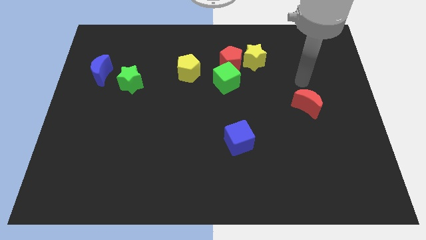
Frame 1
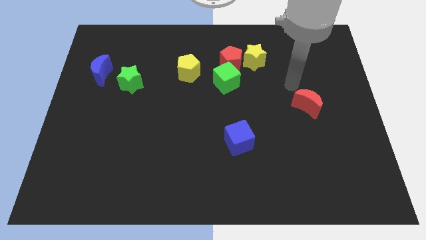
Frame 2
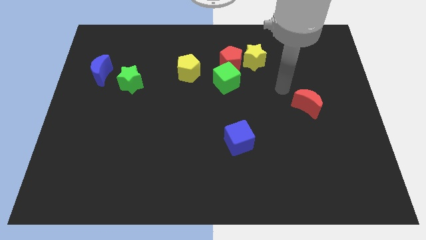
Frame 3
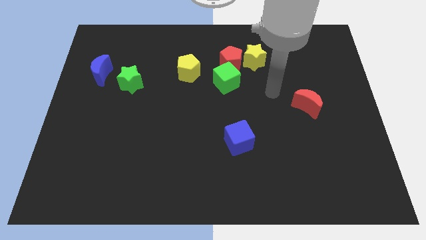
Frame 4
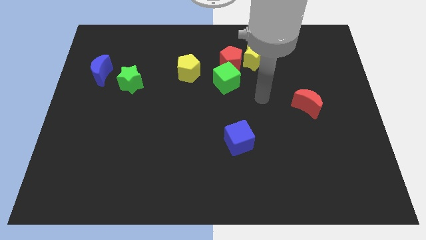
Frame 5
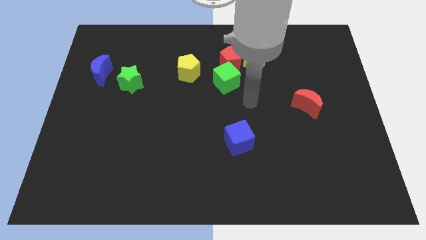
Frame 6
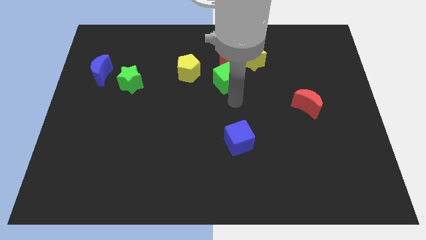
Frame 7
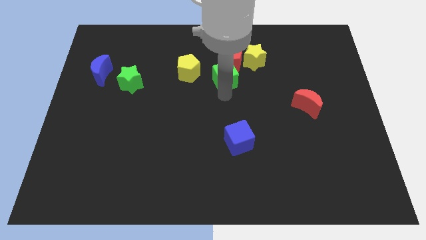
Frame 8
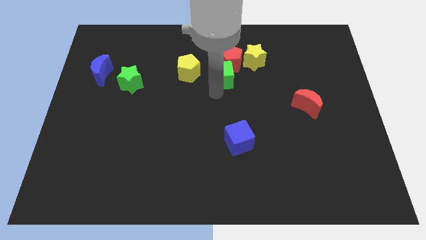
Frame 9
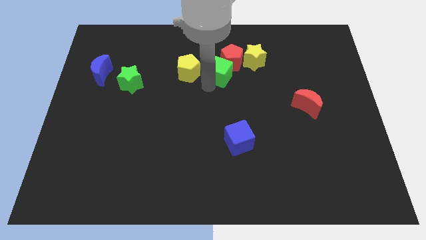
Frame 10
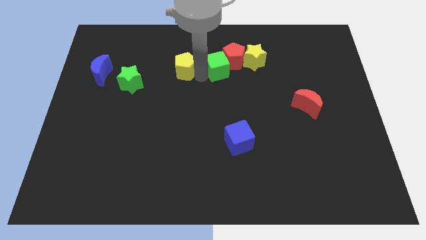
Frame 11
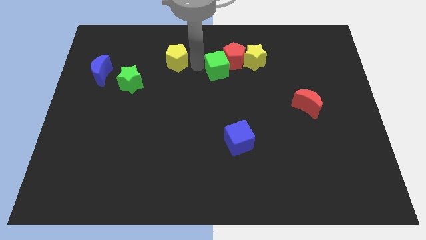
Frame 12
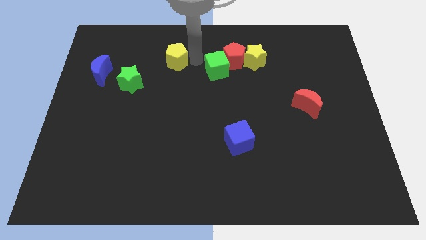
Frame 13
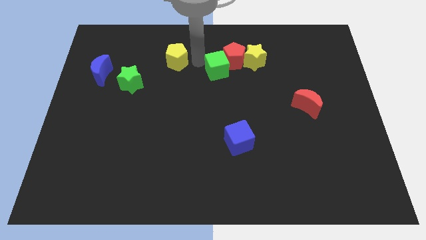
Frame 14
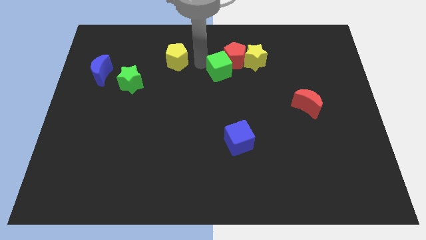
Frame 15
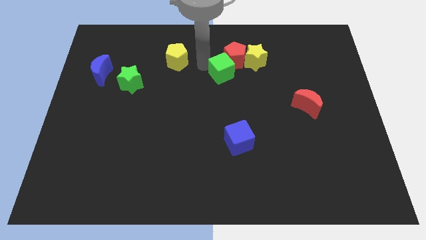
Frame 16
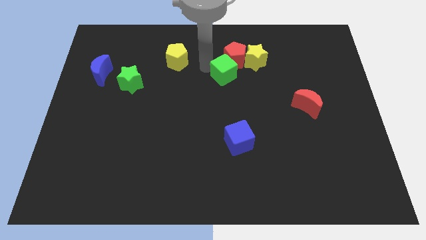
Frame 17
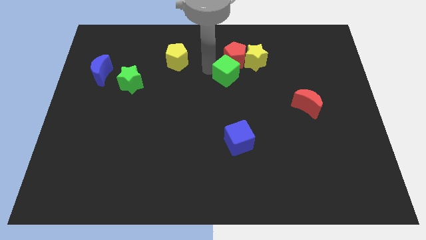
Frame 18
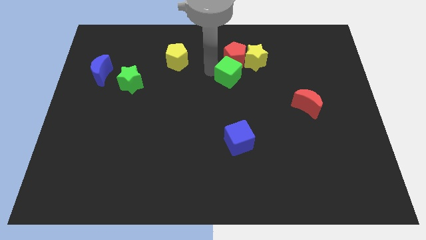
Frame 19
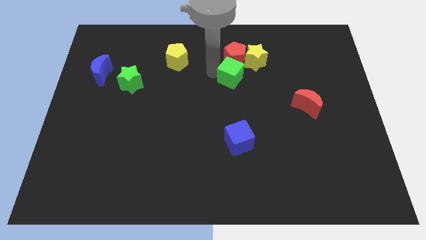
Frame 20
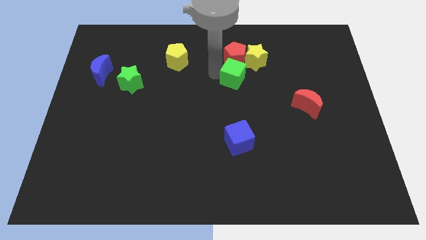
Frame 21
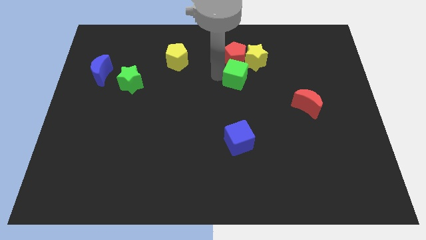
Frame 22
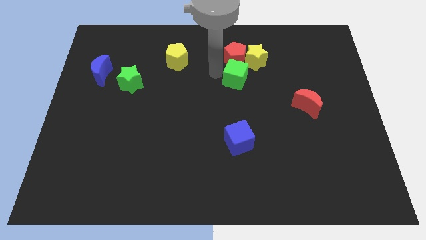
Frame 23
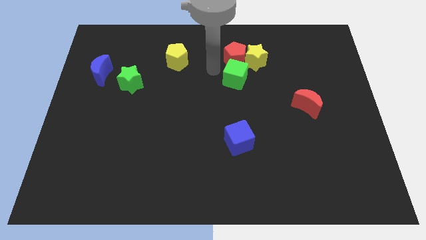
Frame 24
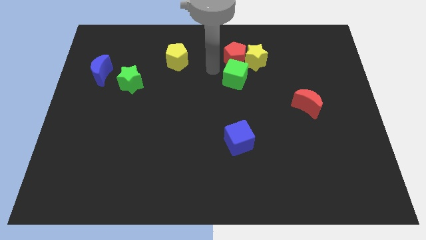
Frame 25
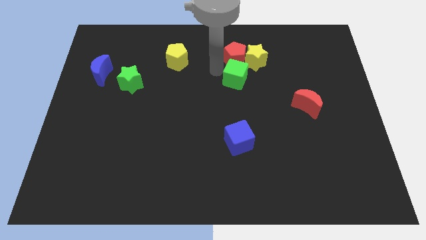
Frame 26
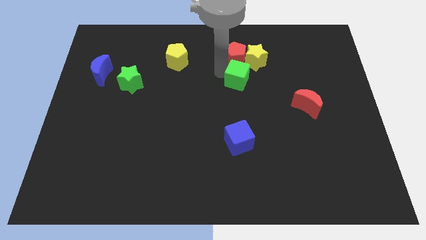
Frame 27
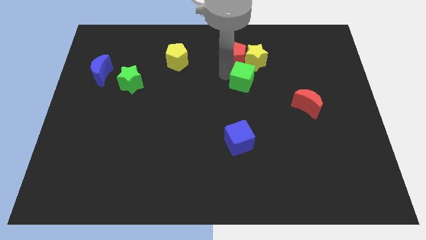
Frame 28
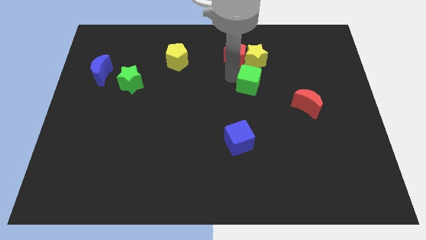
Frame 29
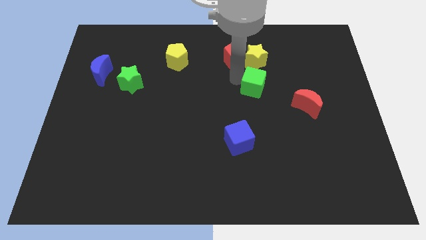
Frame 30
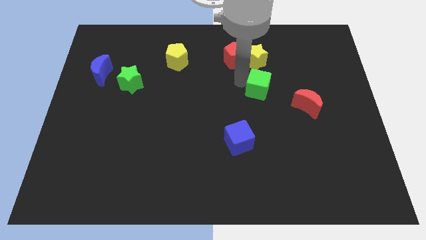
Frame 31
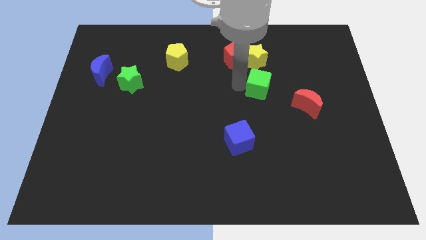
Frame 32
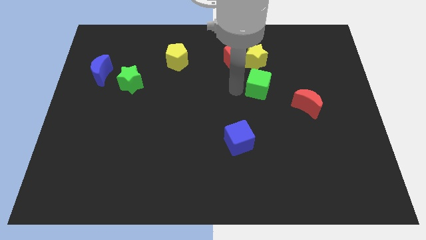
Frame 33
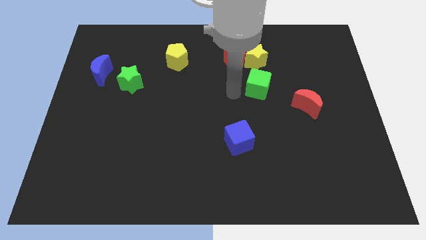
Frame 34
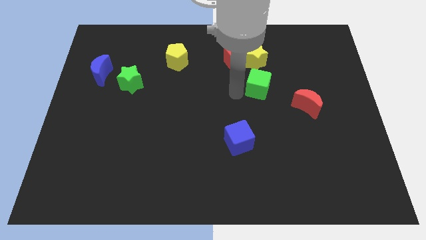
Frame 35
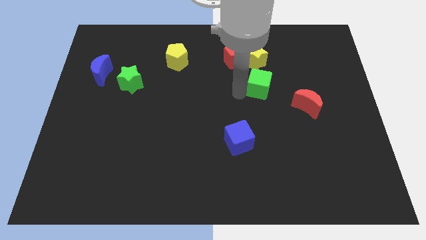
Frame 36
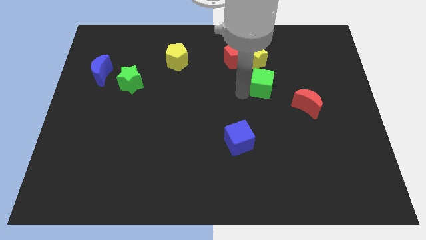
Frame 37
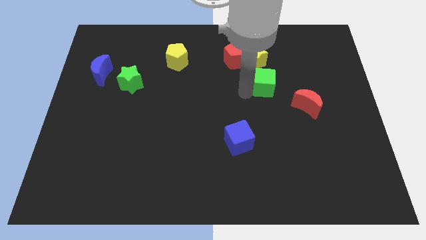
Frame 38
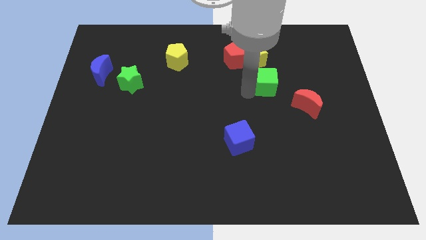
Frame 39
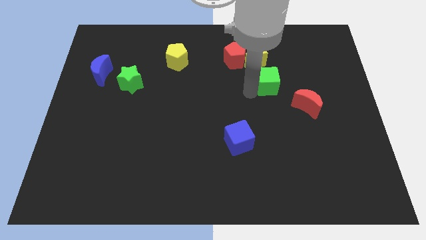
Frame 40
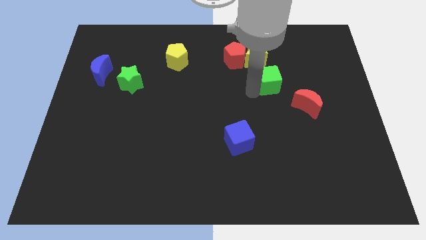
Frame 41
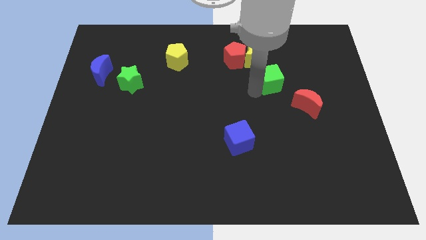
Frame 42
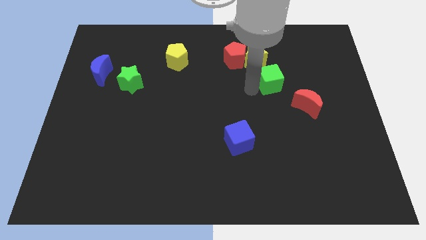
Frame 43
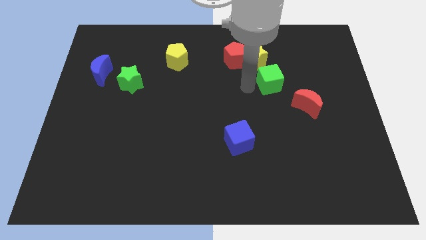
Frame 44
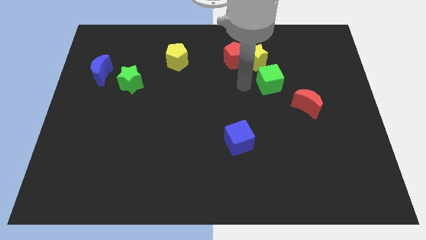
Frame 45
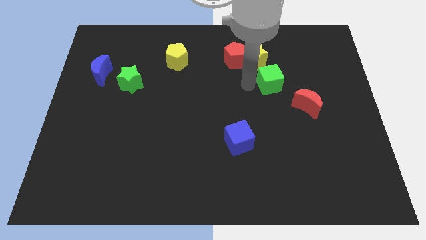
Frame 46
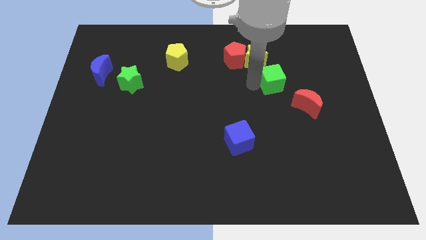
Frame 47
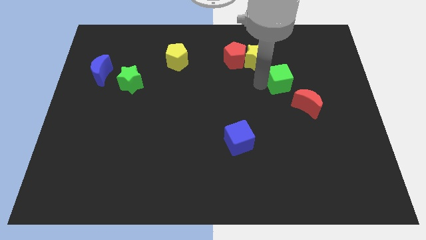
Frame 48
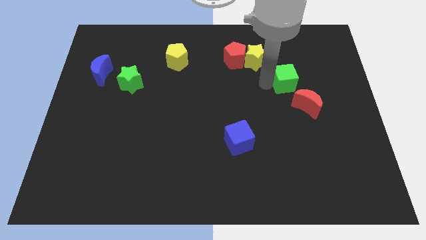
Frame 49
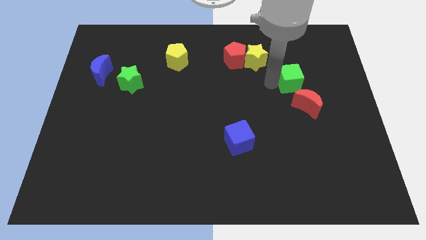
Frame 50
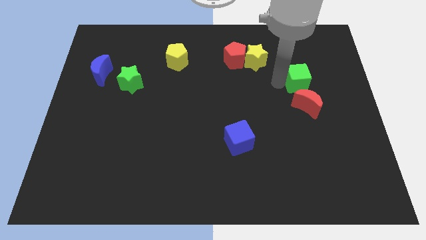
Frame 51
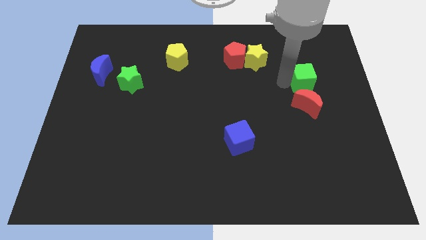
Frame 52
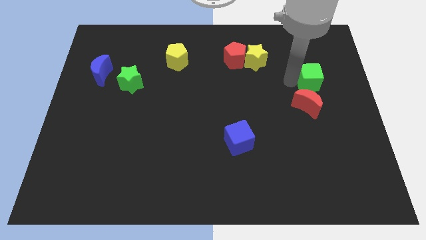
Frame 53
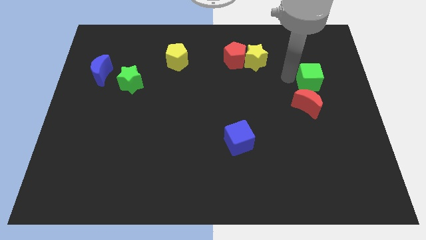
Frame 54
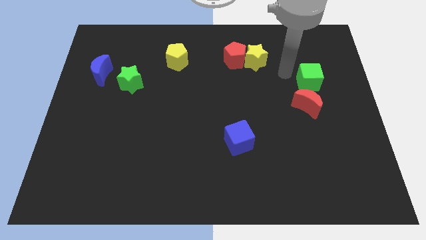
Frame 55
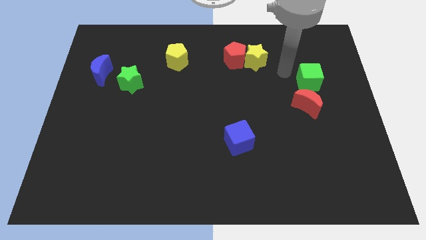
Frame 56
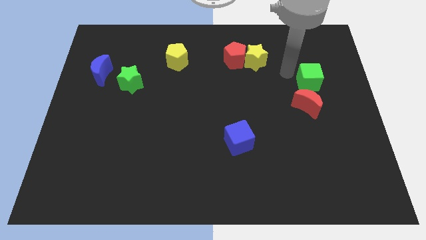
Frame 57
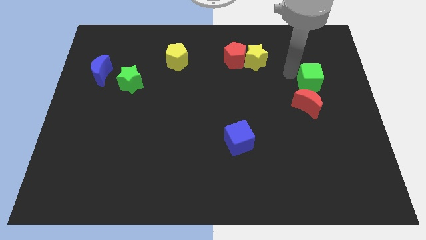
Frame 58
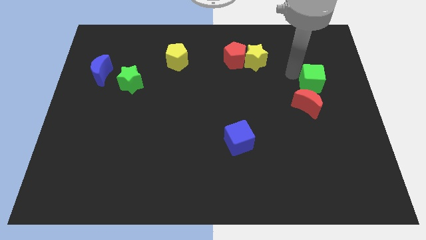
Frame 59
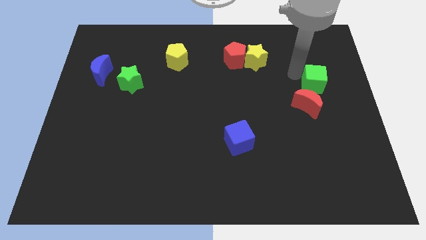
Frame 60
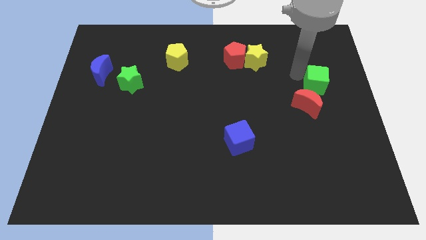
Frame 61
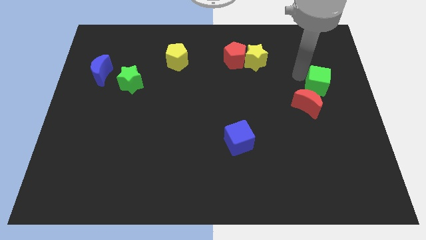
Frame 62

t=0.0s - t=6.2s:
put the green cube to the right side

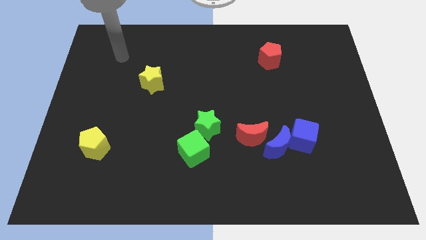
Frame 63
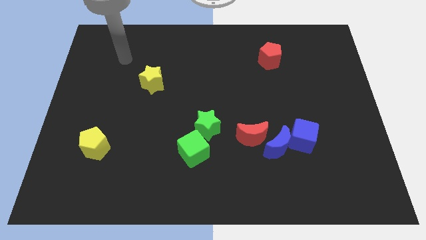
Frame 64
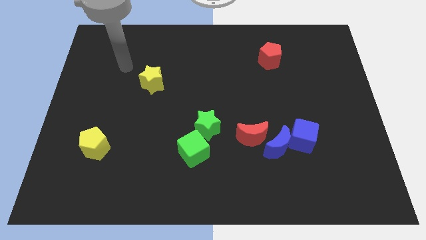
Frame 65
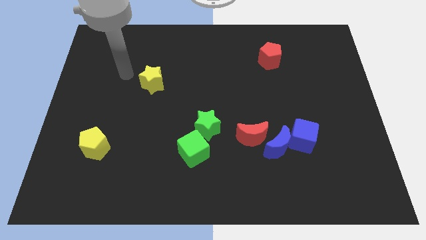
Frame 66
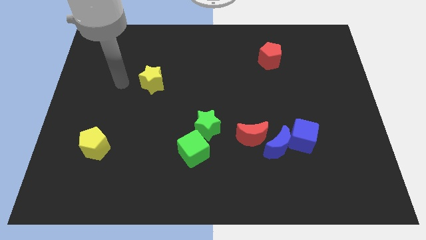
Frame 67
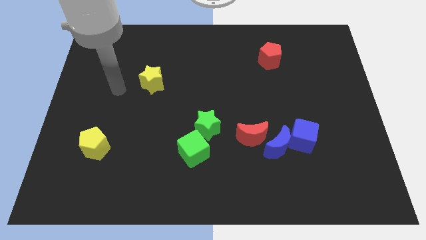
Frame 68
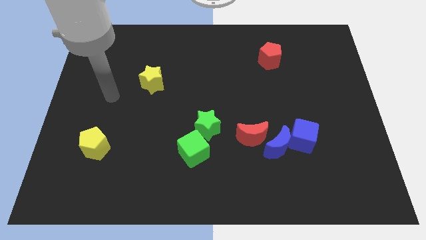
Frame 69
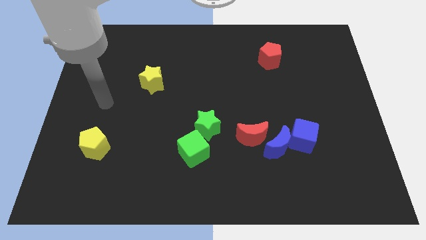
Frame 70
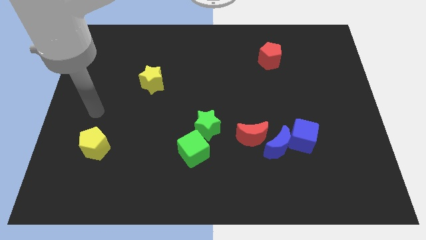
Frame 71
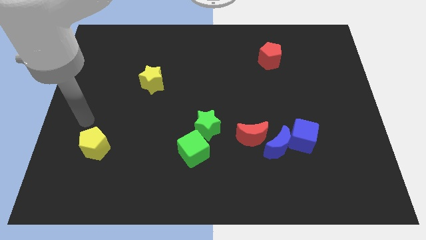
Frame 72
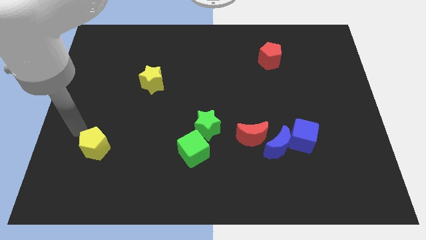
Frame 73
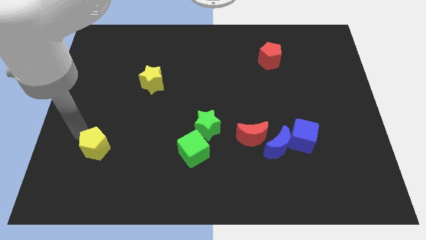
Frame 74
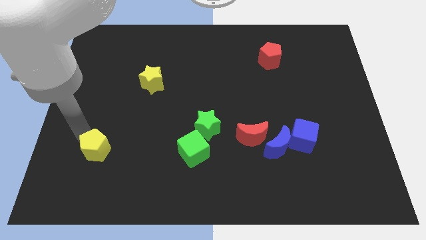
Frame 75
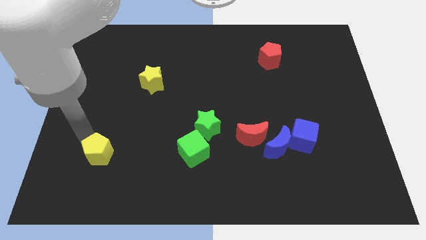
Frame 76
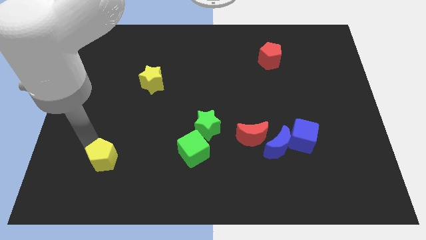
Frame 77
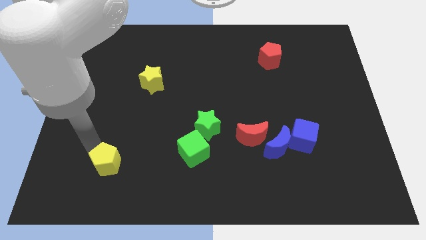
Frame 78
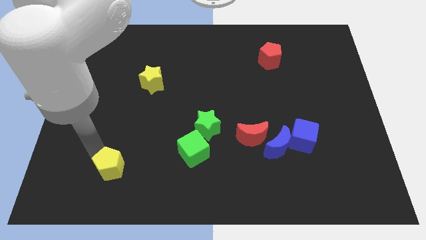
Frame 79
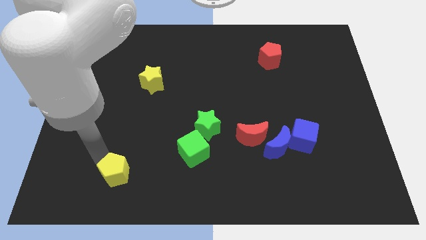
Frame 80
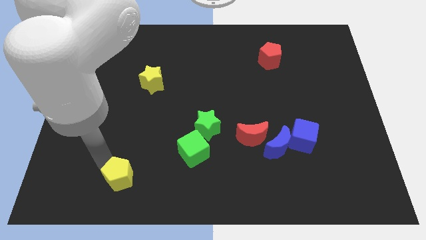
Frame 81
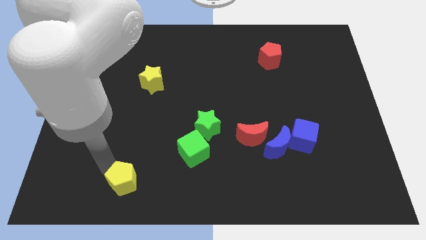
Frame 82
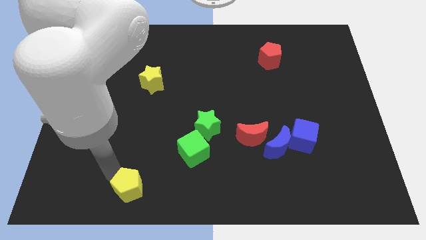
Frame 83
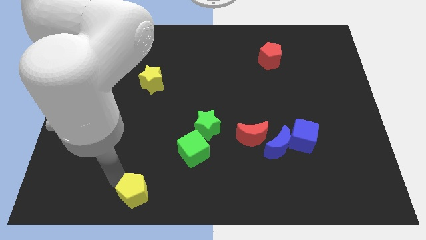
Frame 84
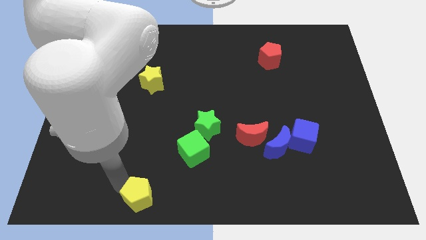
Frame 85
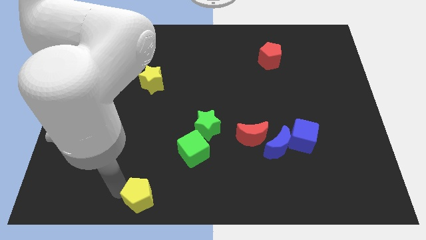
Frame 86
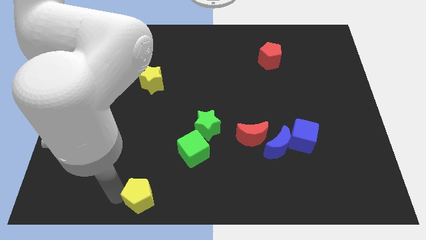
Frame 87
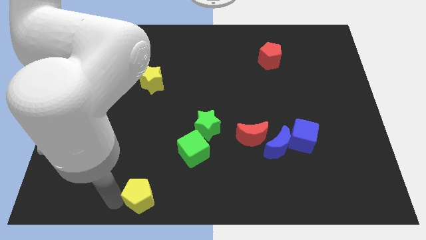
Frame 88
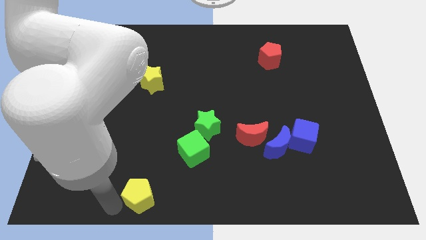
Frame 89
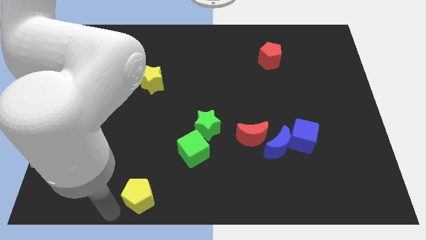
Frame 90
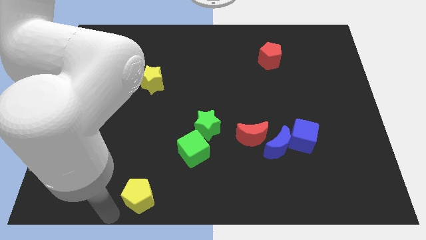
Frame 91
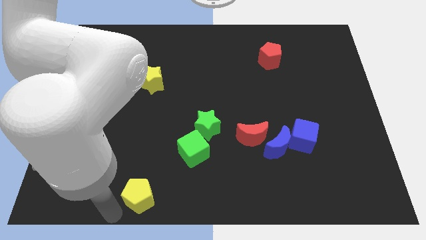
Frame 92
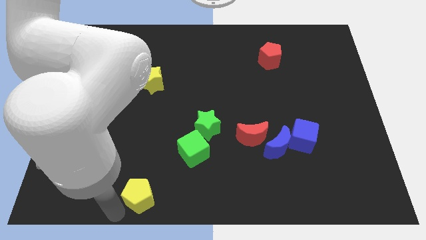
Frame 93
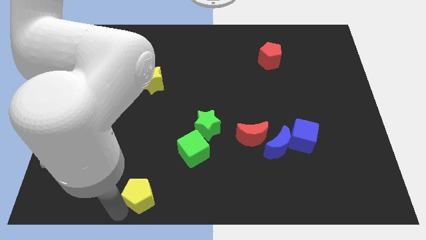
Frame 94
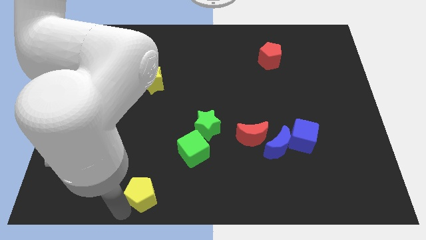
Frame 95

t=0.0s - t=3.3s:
slide the yellow pentagon to the bottom side
